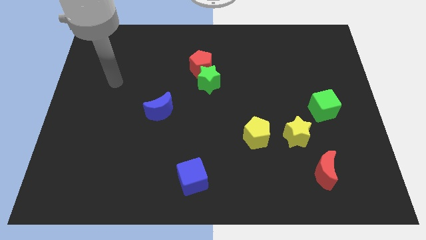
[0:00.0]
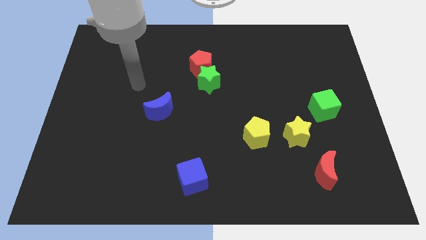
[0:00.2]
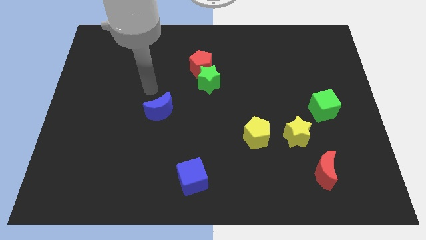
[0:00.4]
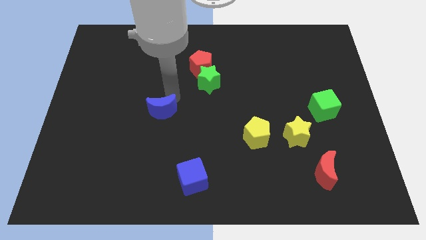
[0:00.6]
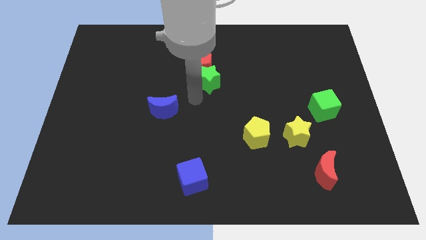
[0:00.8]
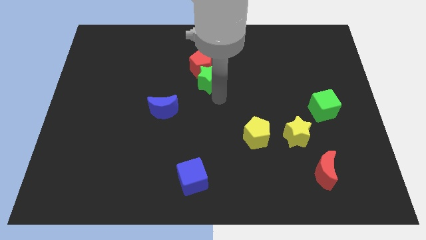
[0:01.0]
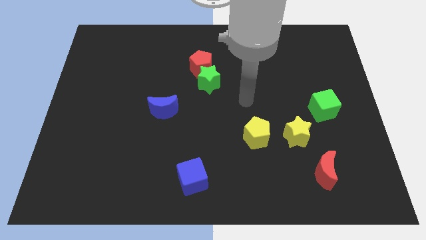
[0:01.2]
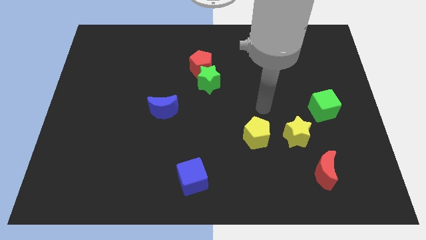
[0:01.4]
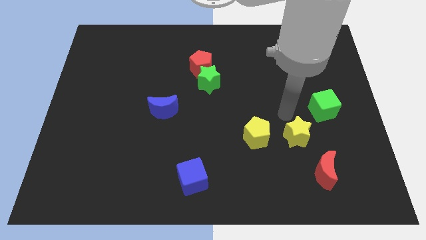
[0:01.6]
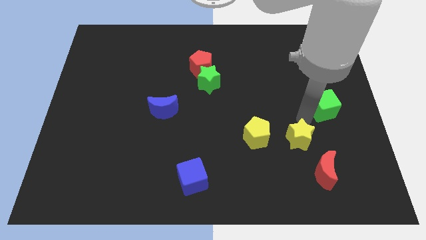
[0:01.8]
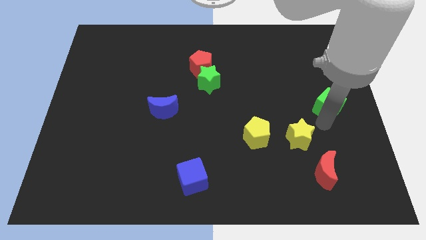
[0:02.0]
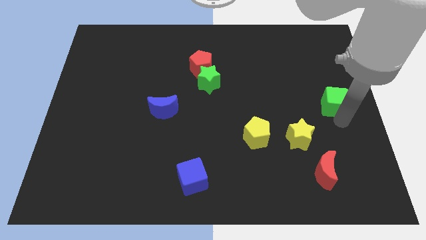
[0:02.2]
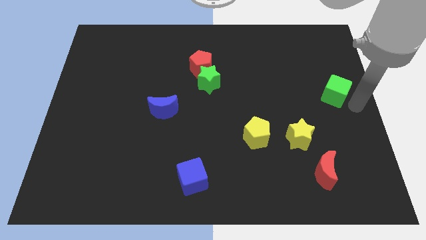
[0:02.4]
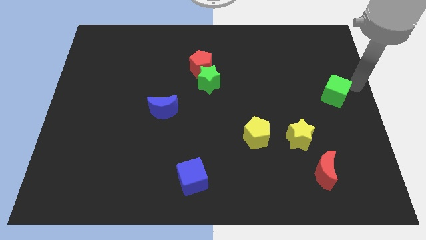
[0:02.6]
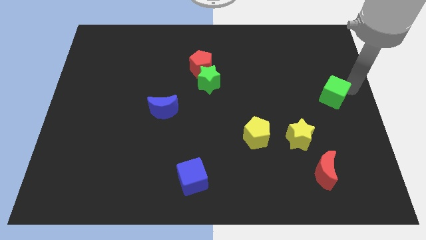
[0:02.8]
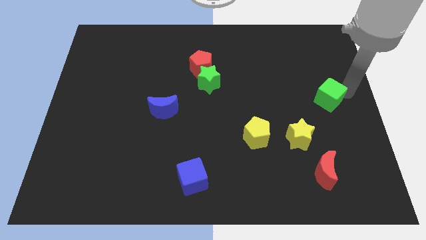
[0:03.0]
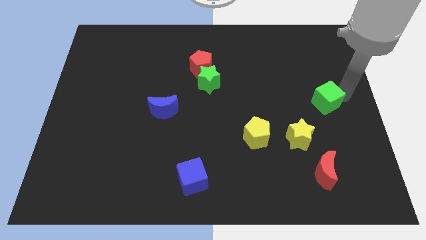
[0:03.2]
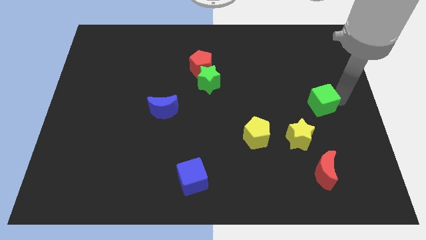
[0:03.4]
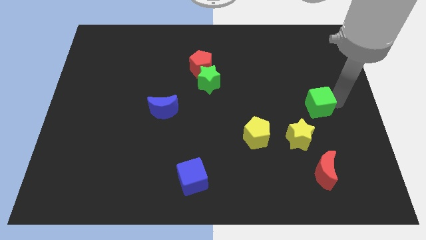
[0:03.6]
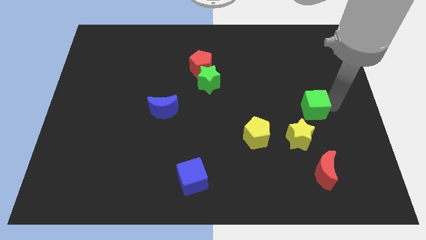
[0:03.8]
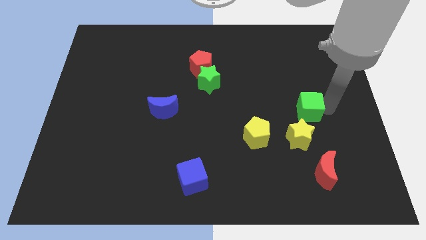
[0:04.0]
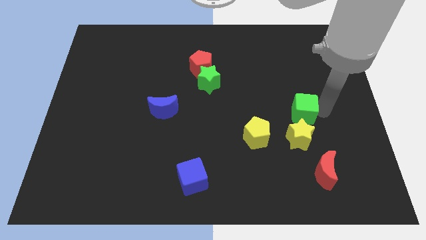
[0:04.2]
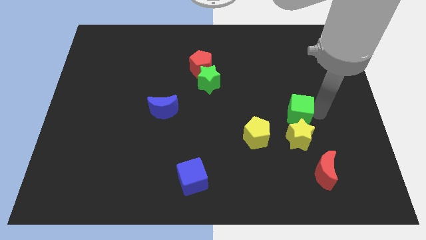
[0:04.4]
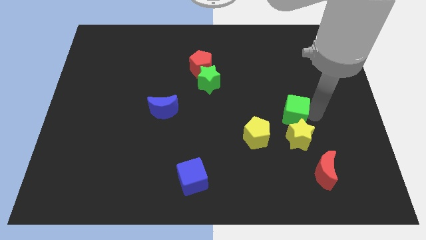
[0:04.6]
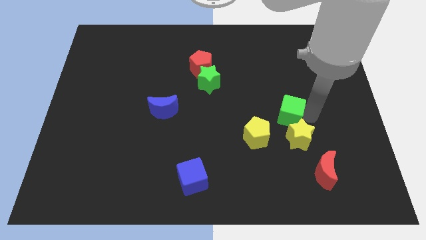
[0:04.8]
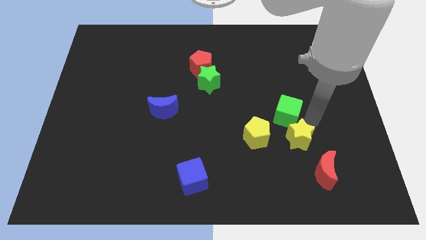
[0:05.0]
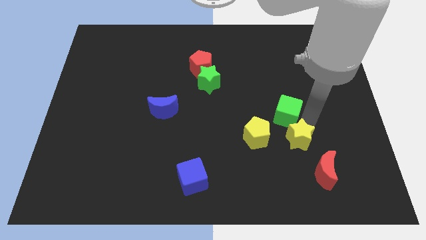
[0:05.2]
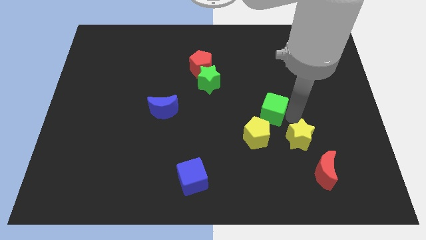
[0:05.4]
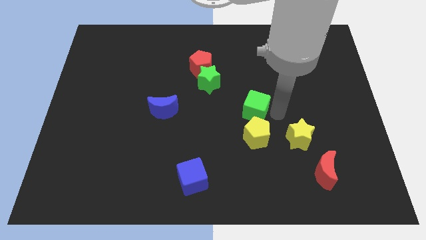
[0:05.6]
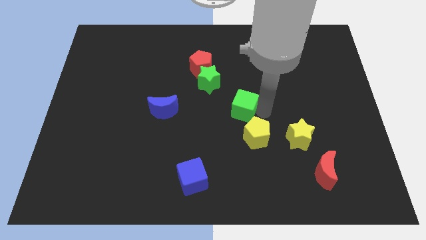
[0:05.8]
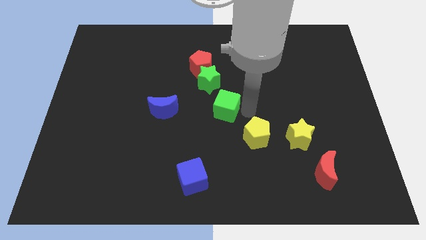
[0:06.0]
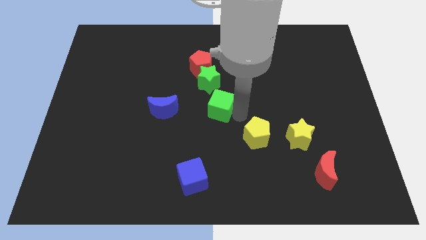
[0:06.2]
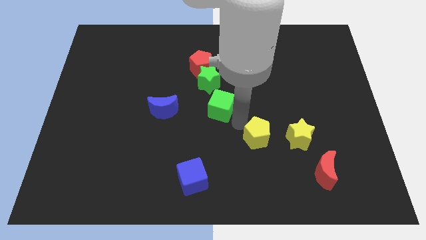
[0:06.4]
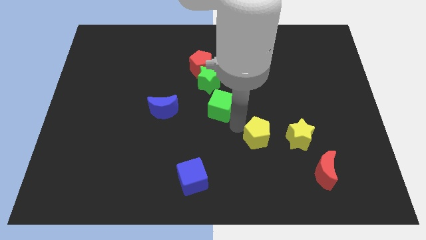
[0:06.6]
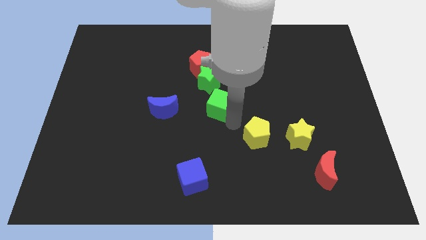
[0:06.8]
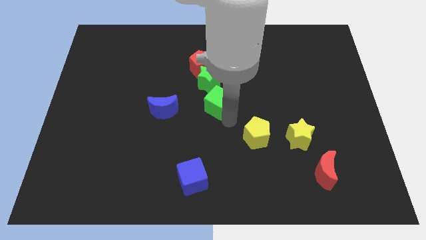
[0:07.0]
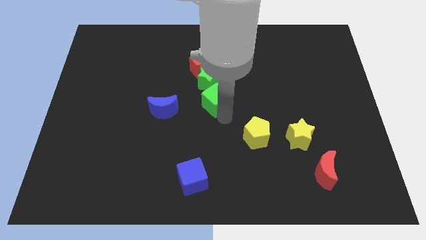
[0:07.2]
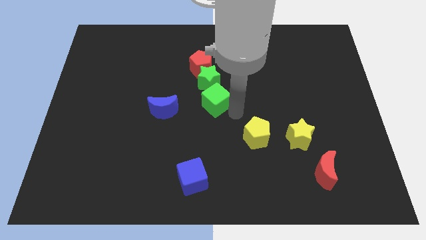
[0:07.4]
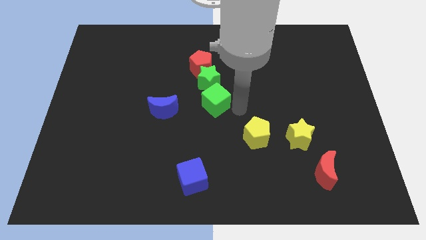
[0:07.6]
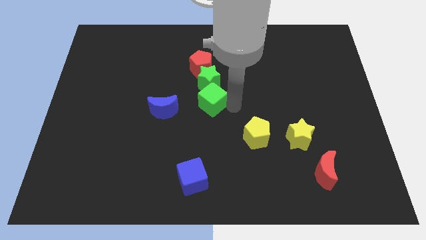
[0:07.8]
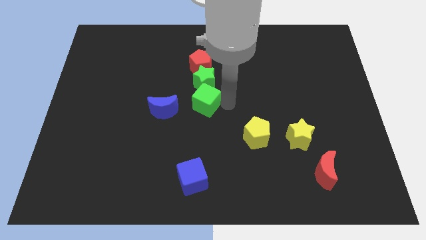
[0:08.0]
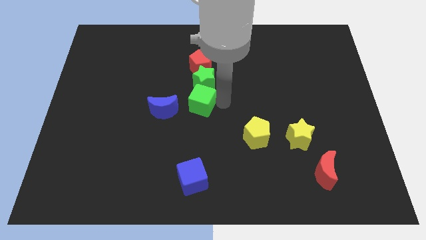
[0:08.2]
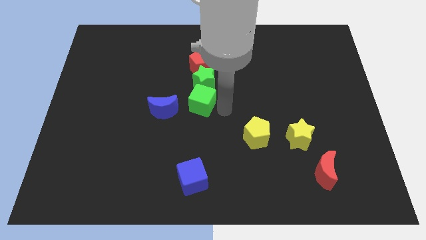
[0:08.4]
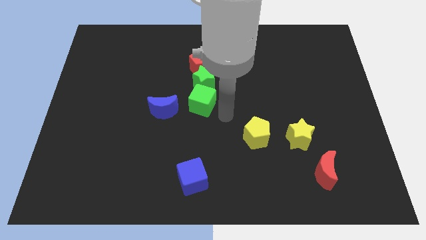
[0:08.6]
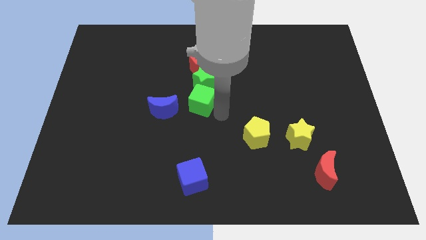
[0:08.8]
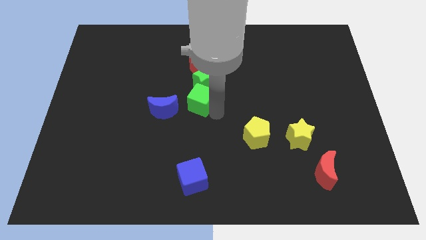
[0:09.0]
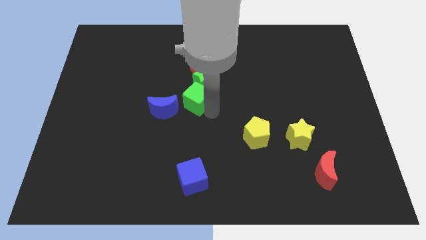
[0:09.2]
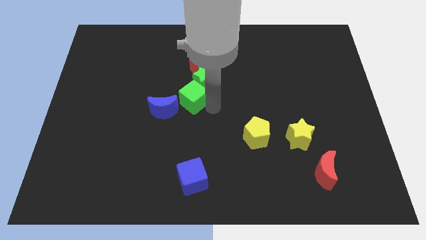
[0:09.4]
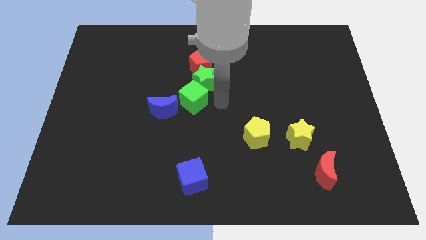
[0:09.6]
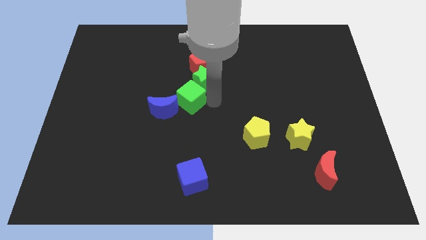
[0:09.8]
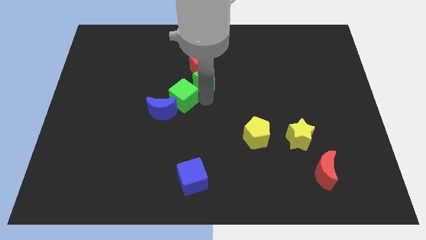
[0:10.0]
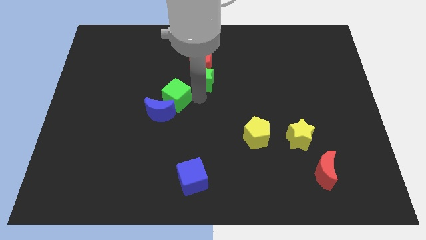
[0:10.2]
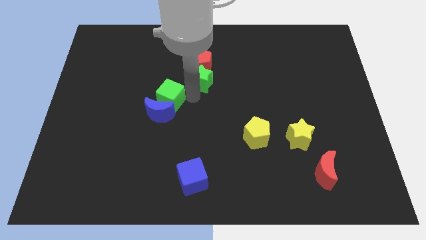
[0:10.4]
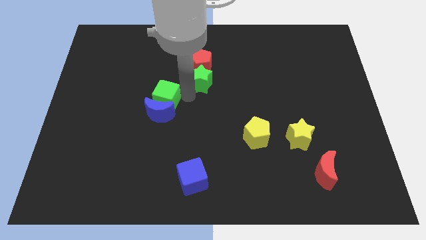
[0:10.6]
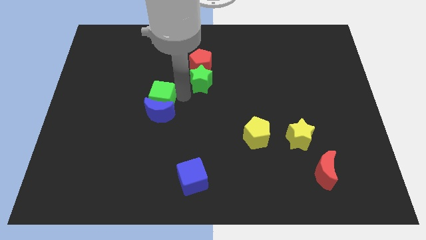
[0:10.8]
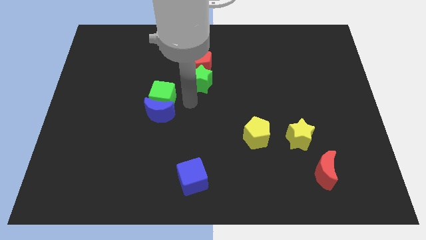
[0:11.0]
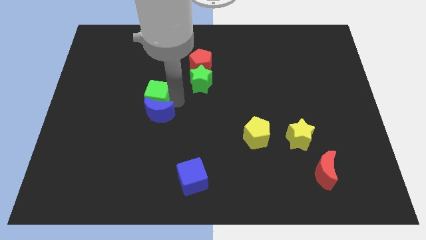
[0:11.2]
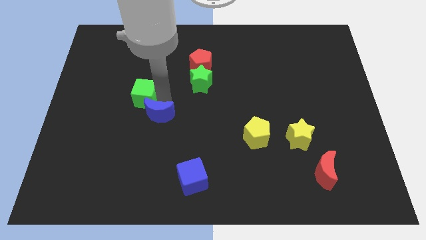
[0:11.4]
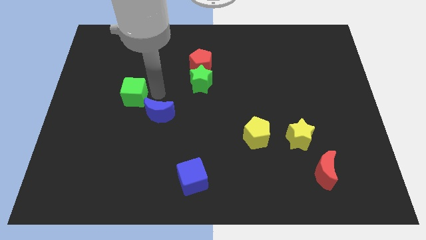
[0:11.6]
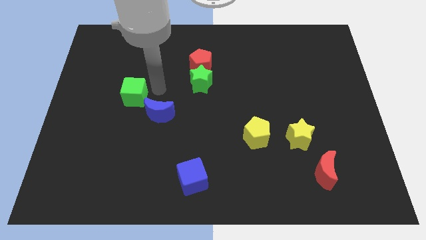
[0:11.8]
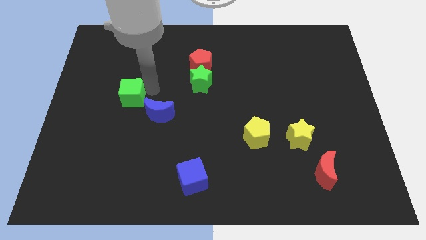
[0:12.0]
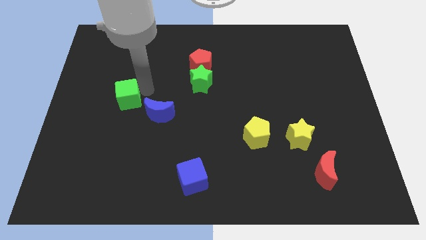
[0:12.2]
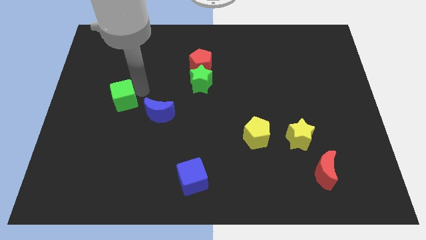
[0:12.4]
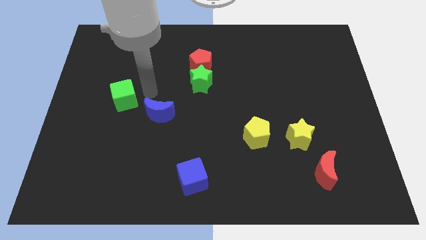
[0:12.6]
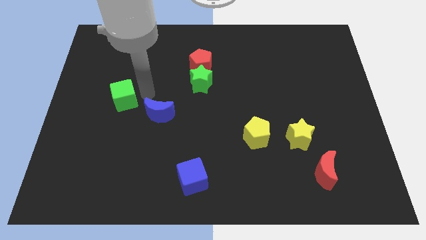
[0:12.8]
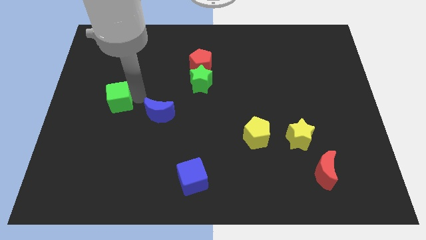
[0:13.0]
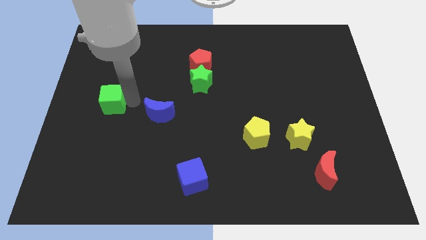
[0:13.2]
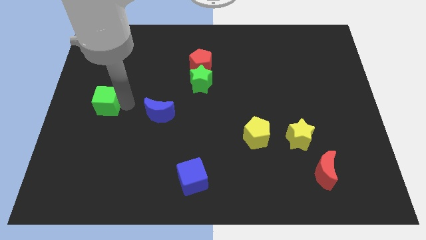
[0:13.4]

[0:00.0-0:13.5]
move the green cube to the left side

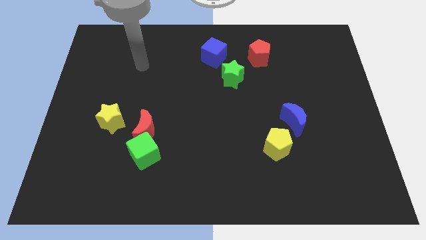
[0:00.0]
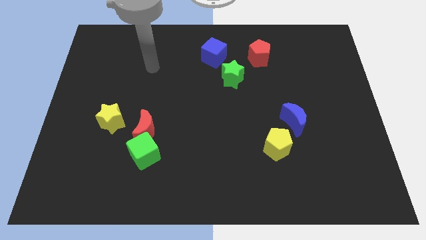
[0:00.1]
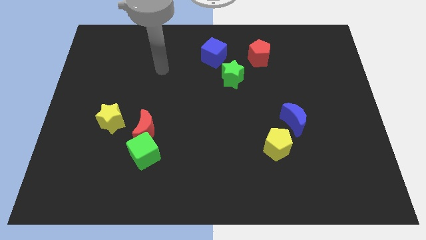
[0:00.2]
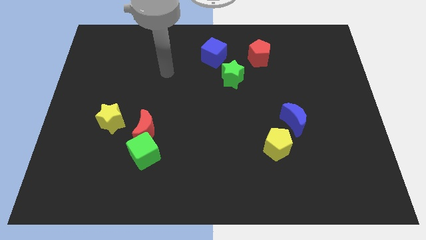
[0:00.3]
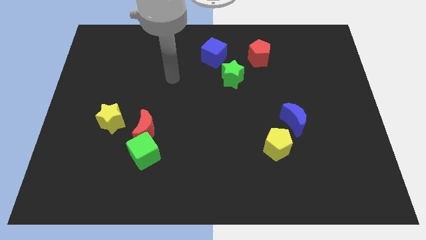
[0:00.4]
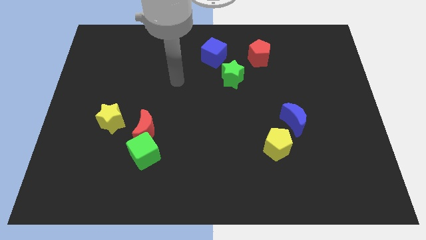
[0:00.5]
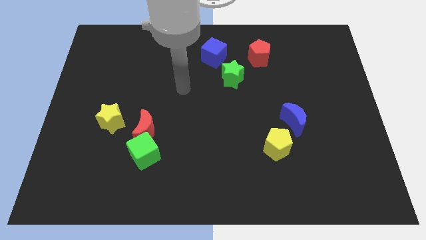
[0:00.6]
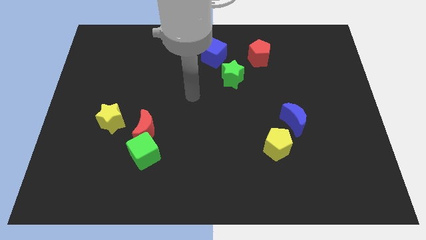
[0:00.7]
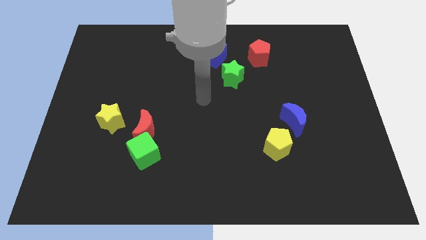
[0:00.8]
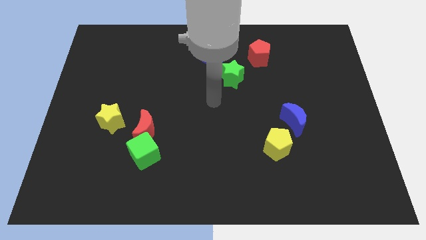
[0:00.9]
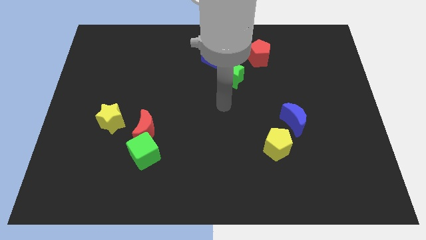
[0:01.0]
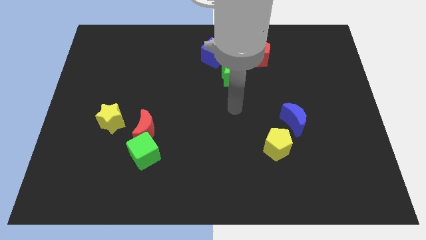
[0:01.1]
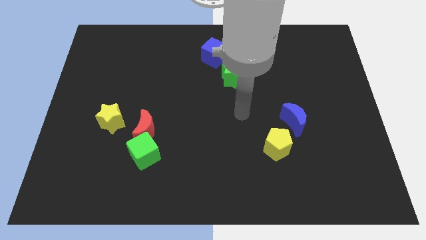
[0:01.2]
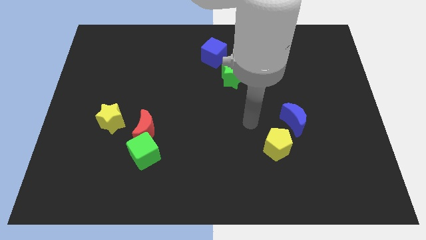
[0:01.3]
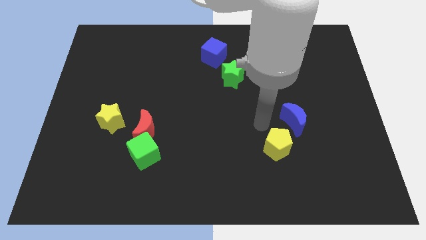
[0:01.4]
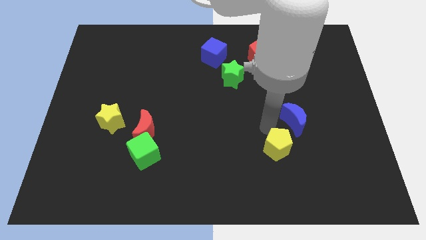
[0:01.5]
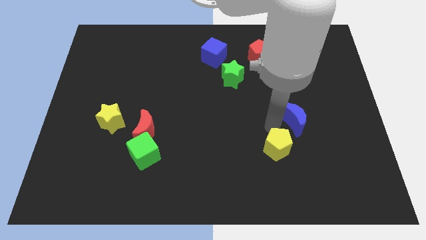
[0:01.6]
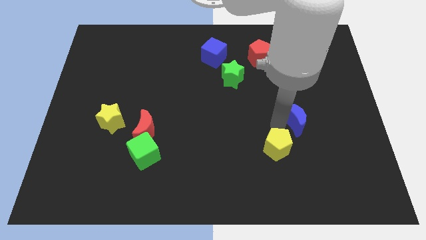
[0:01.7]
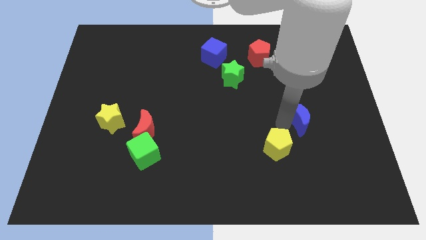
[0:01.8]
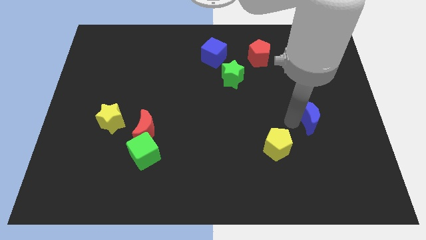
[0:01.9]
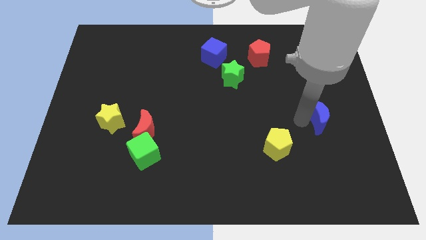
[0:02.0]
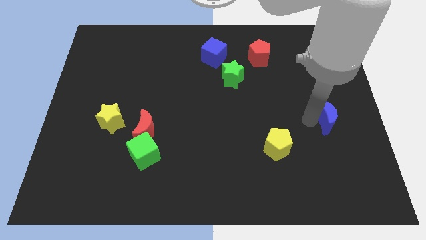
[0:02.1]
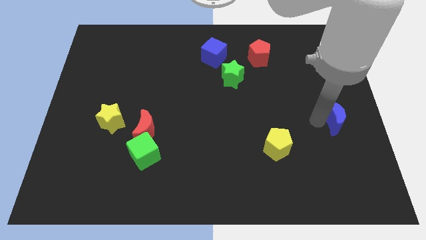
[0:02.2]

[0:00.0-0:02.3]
slide the blue moon to the right side
